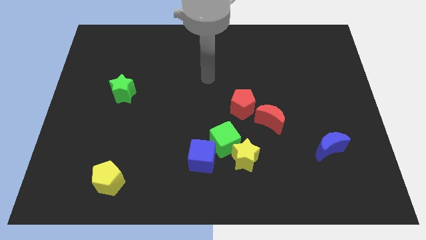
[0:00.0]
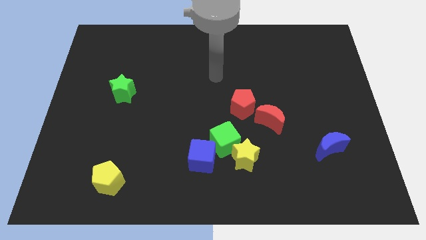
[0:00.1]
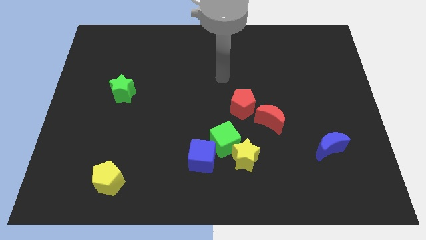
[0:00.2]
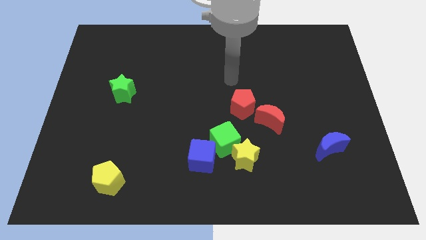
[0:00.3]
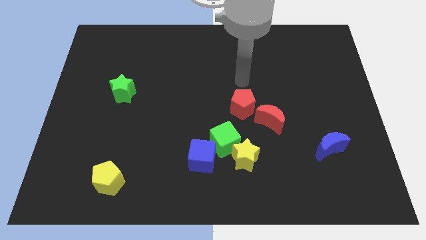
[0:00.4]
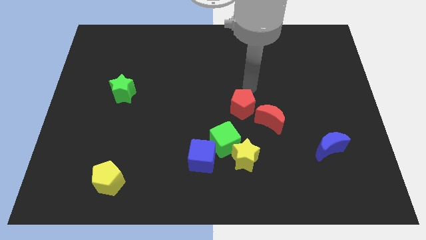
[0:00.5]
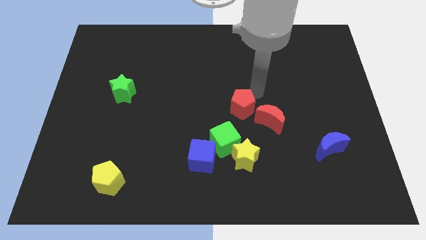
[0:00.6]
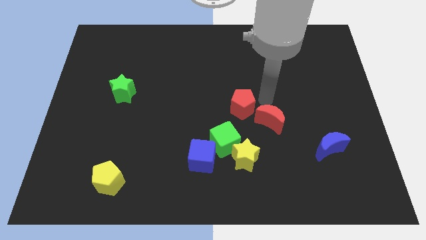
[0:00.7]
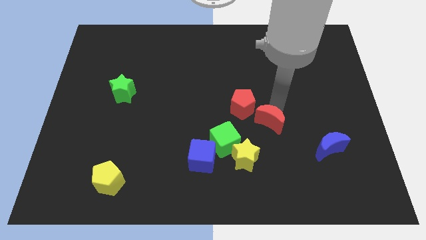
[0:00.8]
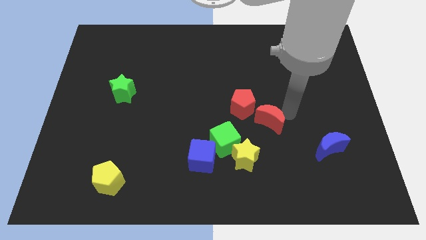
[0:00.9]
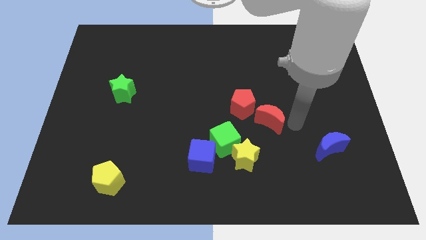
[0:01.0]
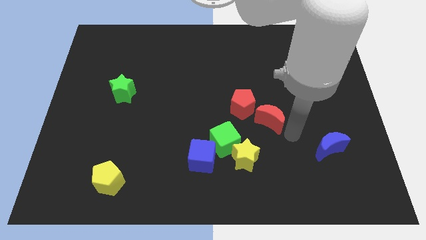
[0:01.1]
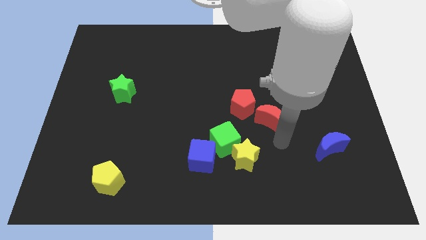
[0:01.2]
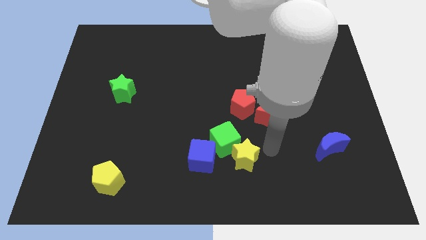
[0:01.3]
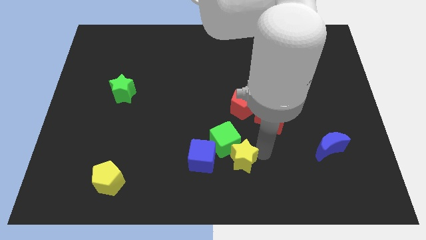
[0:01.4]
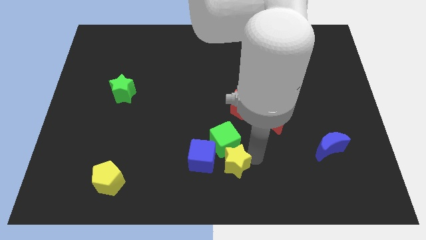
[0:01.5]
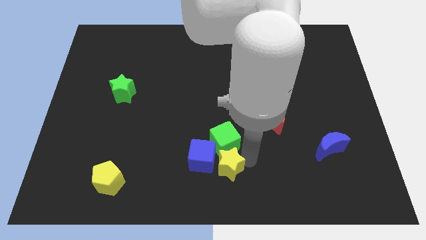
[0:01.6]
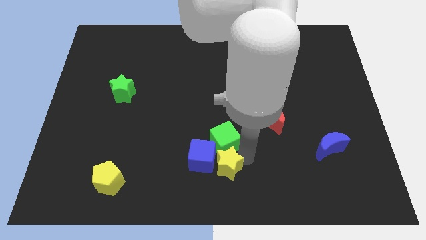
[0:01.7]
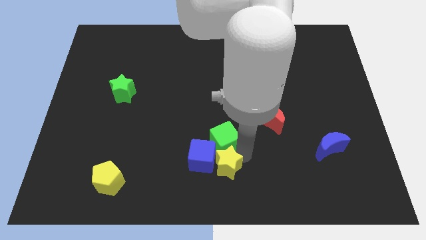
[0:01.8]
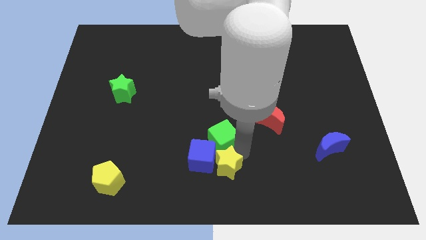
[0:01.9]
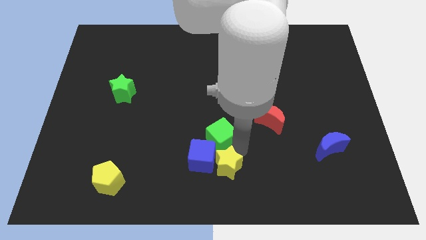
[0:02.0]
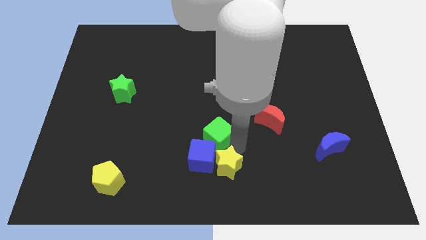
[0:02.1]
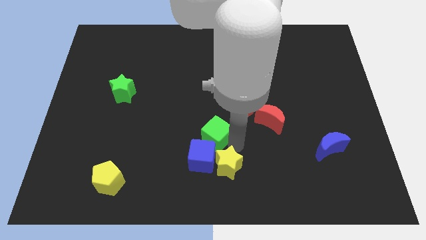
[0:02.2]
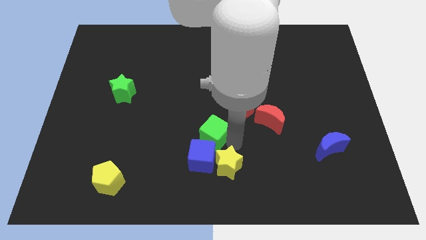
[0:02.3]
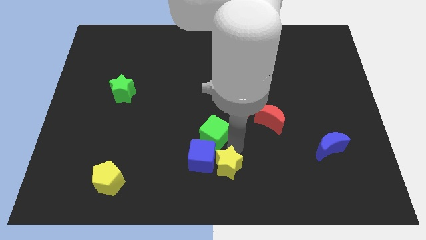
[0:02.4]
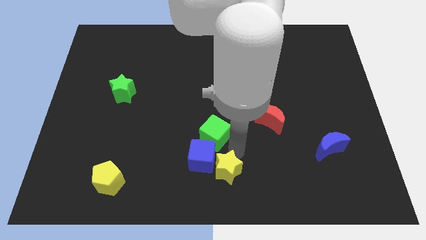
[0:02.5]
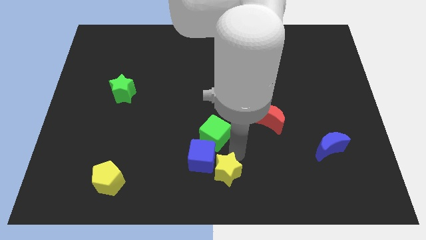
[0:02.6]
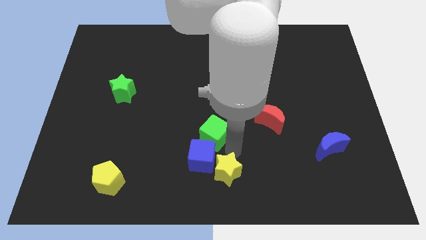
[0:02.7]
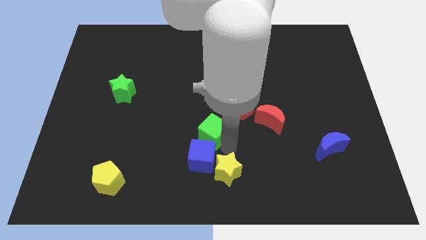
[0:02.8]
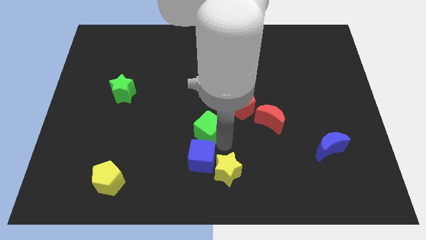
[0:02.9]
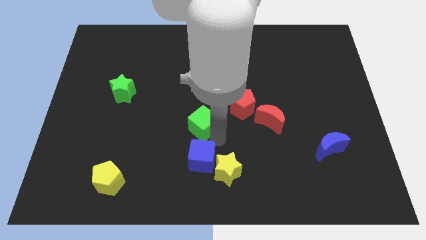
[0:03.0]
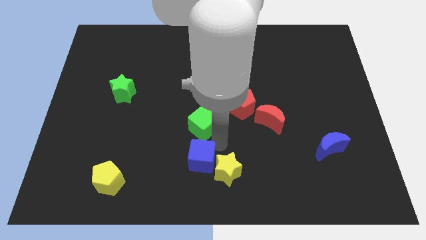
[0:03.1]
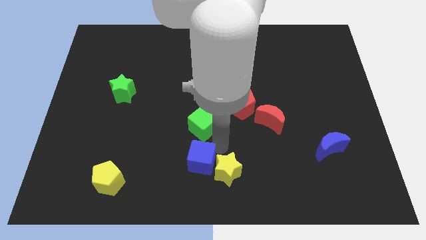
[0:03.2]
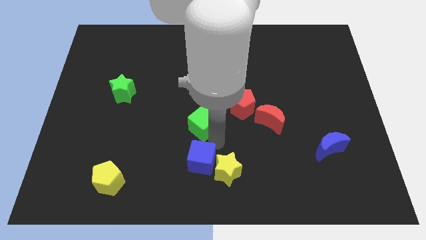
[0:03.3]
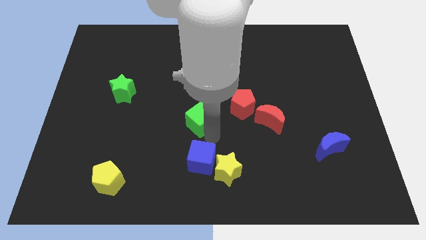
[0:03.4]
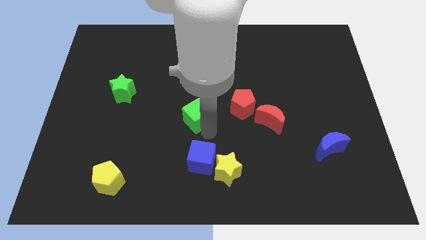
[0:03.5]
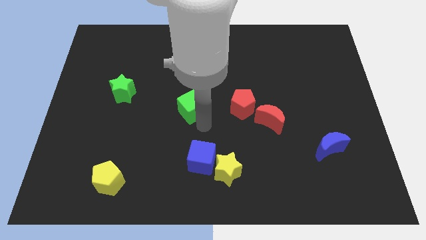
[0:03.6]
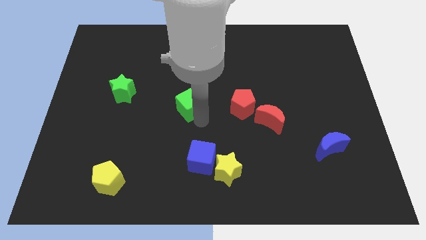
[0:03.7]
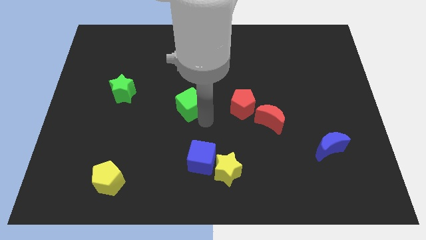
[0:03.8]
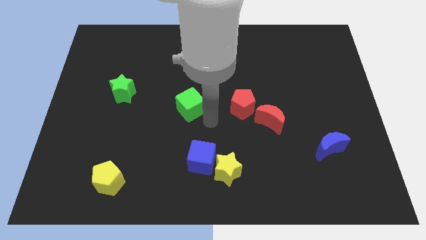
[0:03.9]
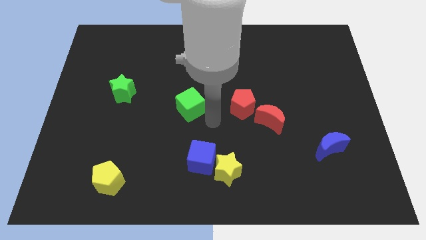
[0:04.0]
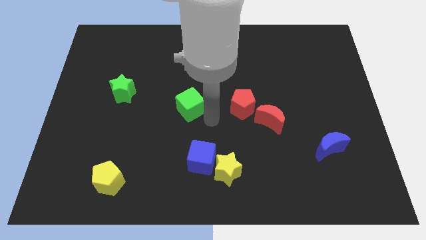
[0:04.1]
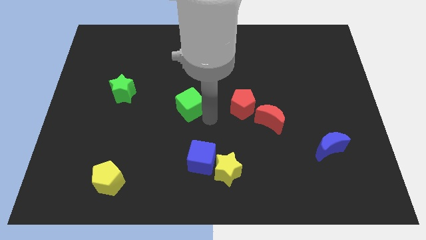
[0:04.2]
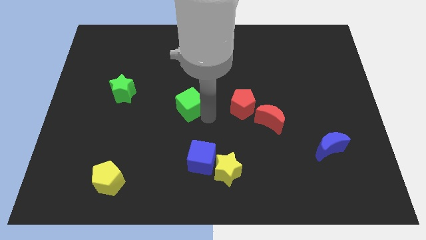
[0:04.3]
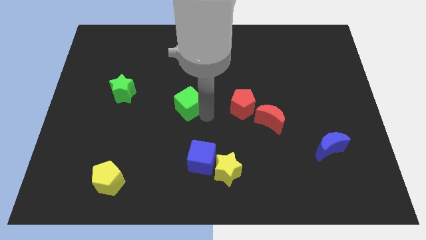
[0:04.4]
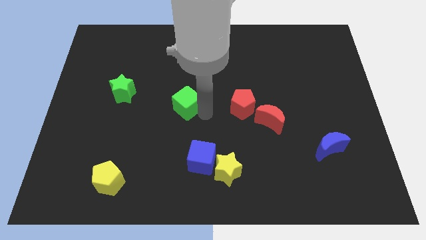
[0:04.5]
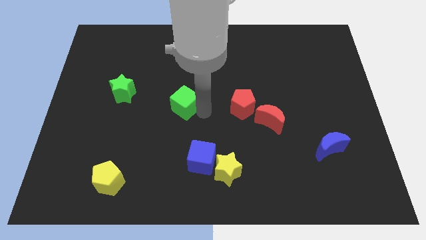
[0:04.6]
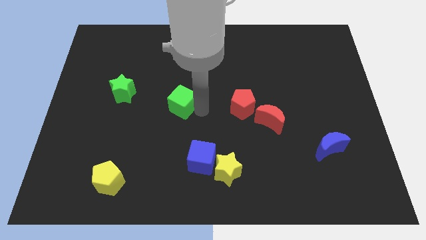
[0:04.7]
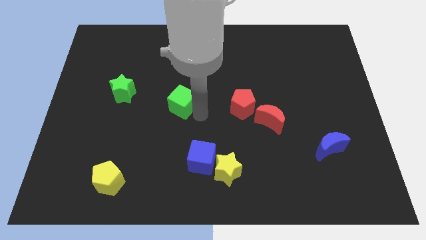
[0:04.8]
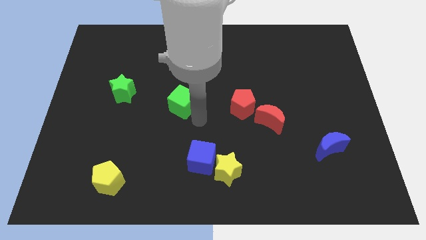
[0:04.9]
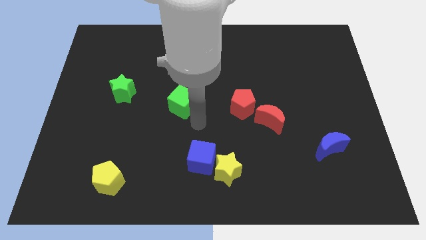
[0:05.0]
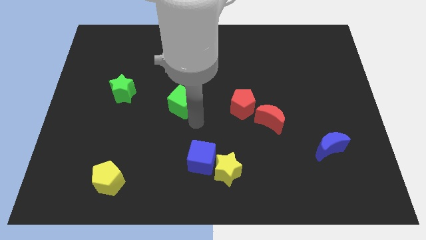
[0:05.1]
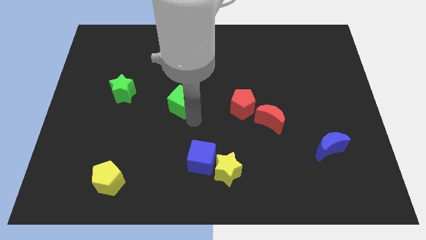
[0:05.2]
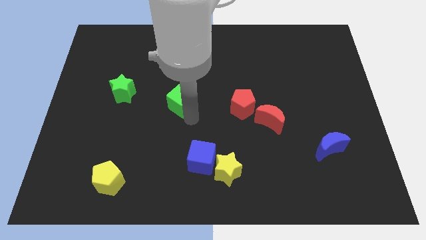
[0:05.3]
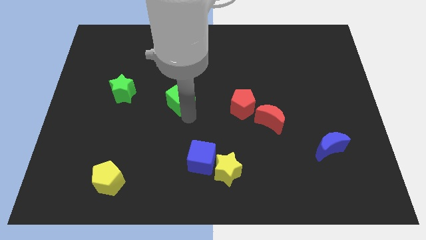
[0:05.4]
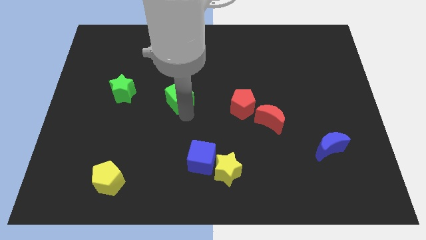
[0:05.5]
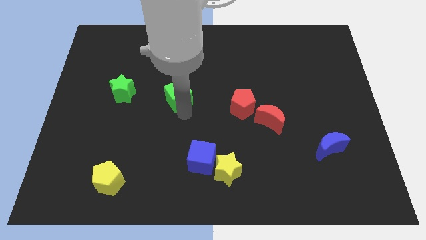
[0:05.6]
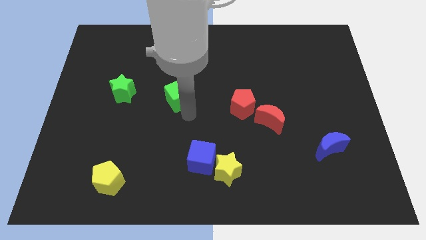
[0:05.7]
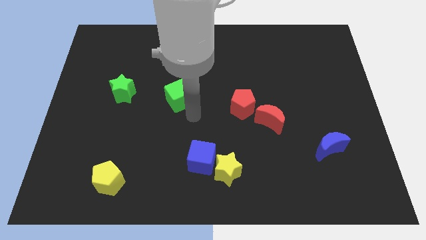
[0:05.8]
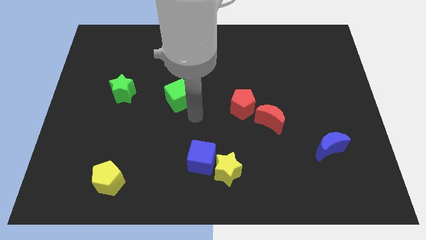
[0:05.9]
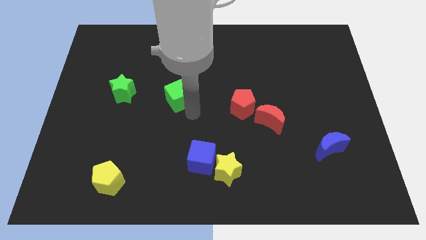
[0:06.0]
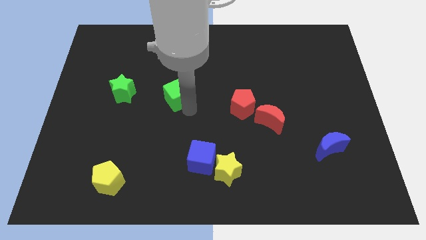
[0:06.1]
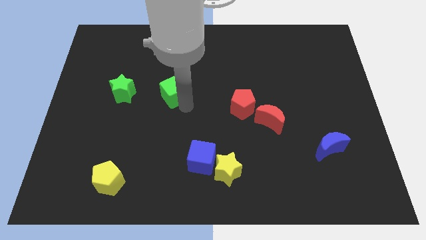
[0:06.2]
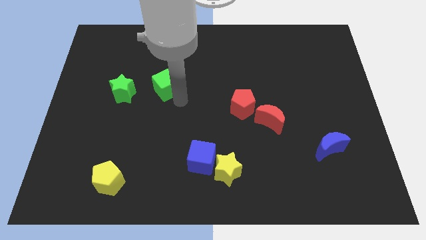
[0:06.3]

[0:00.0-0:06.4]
push the green cube upwards and then left

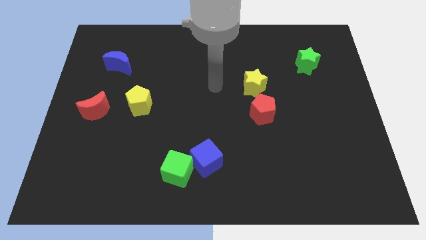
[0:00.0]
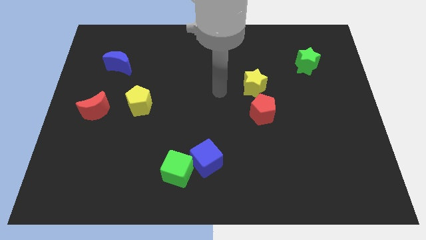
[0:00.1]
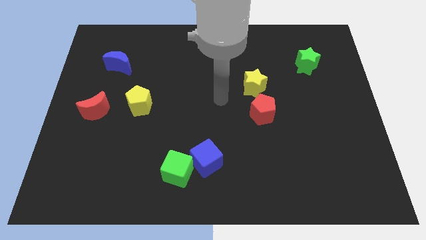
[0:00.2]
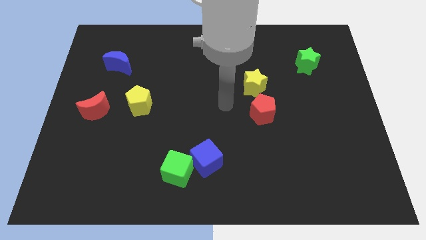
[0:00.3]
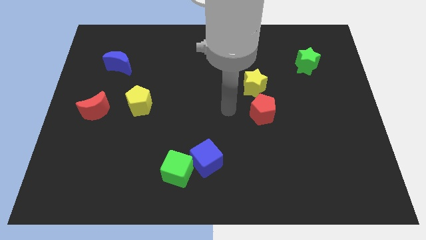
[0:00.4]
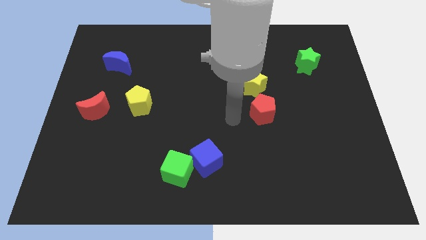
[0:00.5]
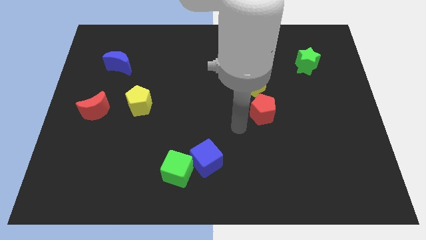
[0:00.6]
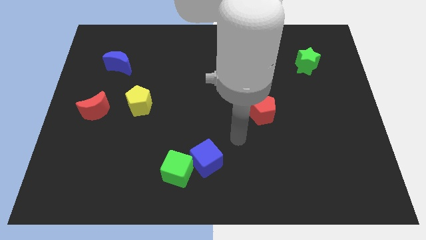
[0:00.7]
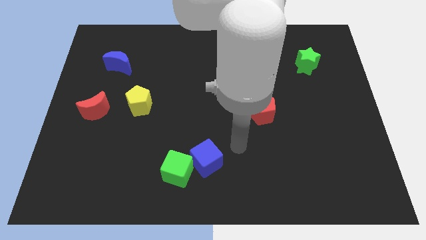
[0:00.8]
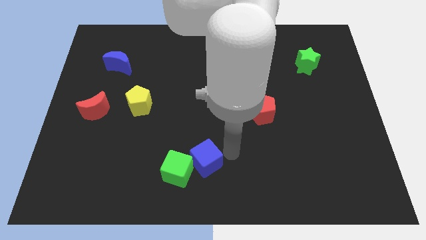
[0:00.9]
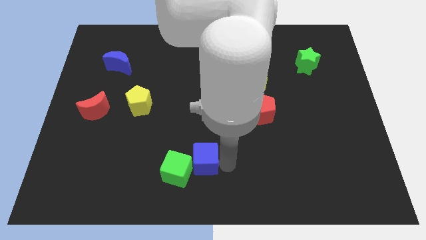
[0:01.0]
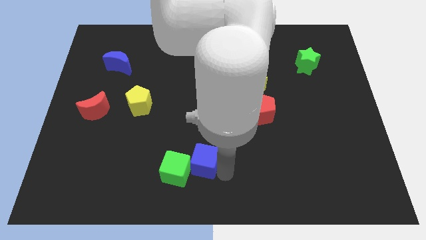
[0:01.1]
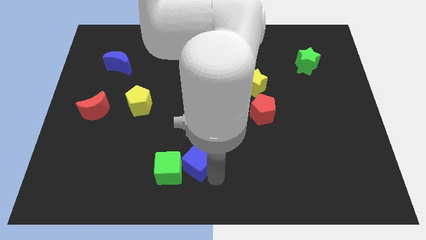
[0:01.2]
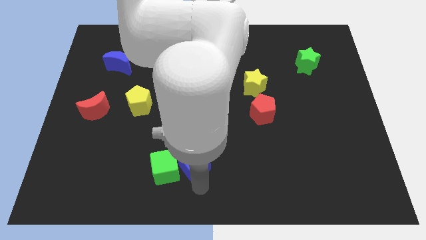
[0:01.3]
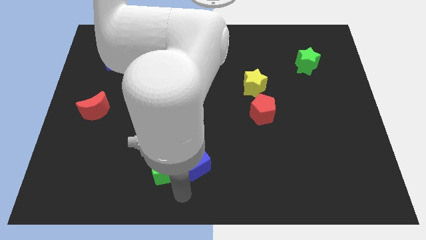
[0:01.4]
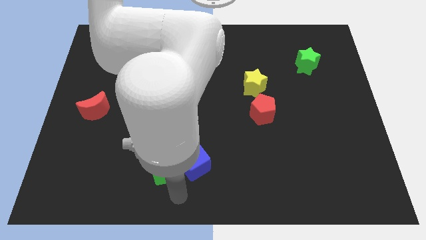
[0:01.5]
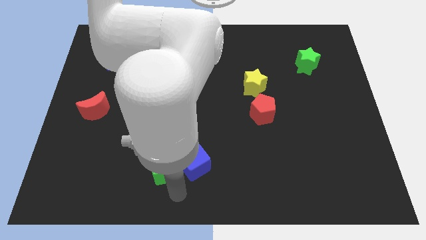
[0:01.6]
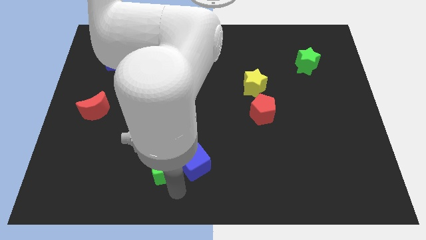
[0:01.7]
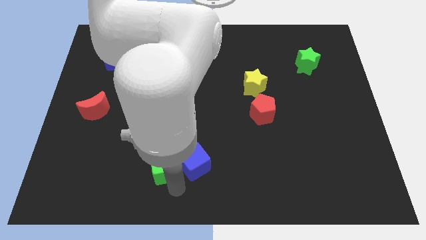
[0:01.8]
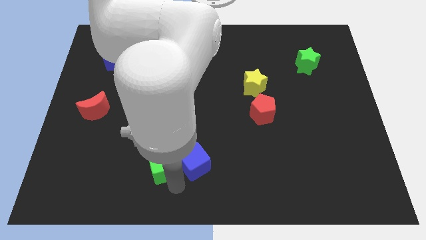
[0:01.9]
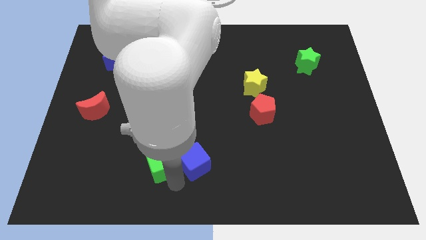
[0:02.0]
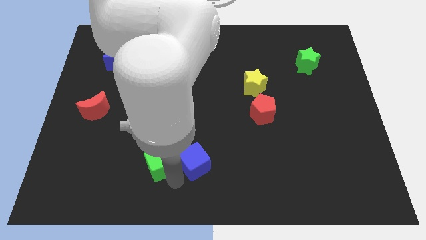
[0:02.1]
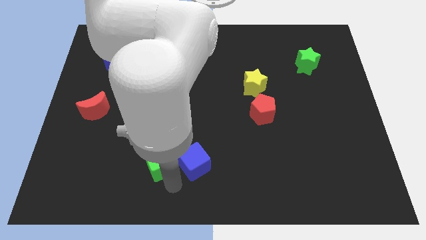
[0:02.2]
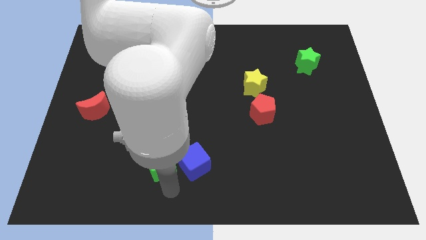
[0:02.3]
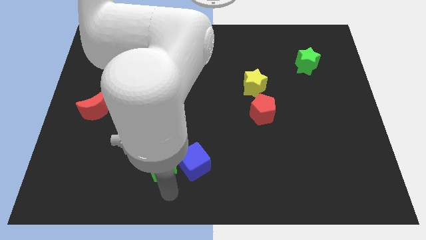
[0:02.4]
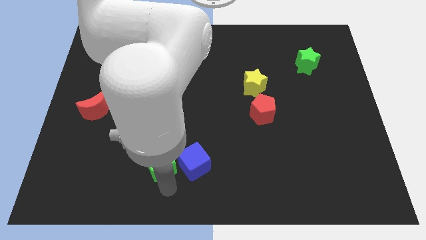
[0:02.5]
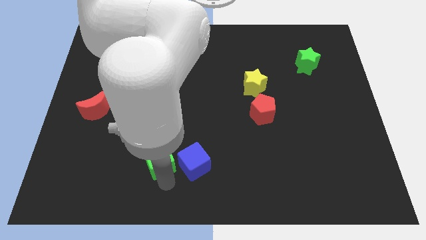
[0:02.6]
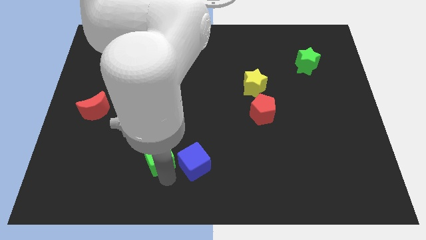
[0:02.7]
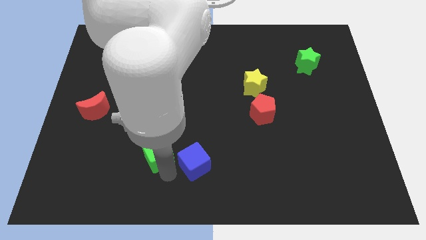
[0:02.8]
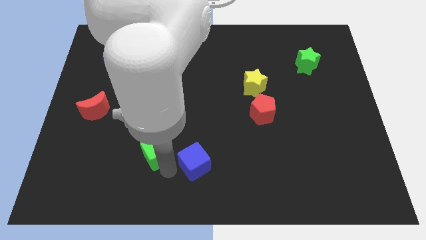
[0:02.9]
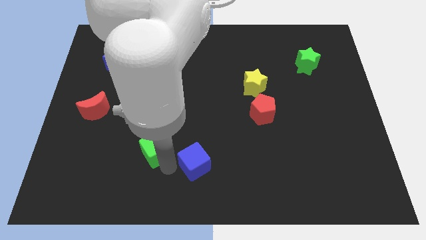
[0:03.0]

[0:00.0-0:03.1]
push the green cube somewhat upwards and then to the left
